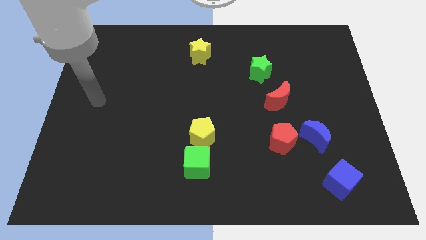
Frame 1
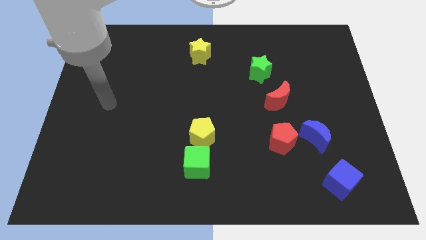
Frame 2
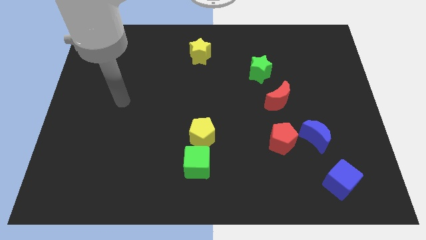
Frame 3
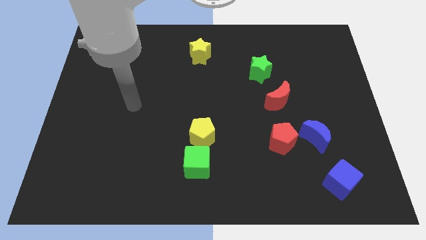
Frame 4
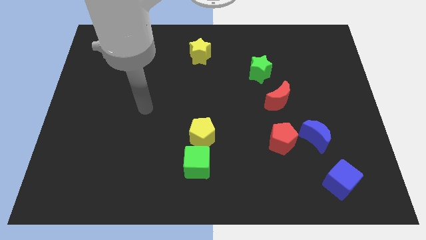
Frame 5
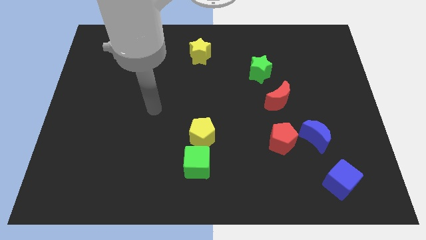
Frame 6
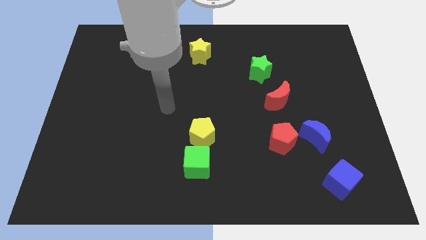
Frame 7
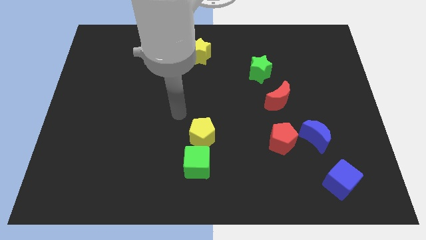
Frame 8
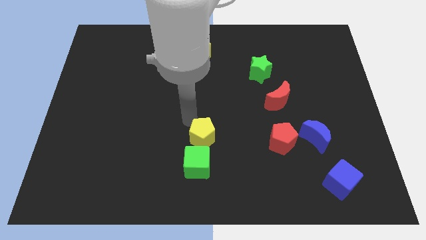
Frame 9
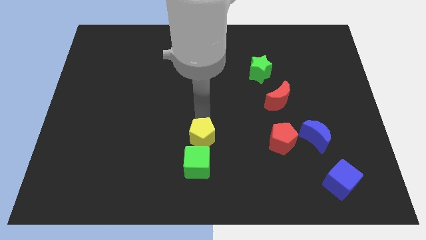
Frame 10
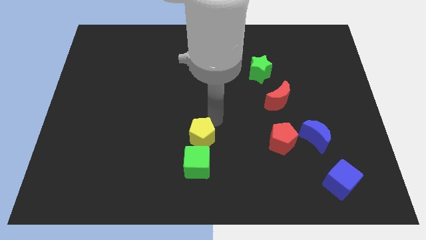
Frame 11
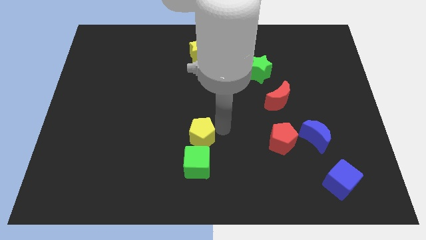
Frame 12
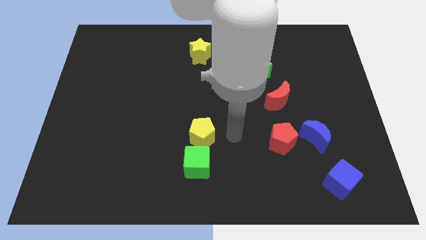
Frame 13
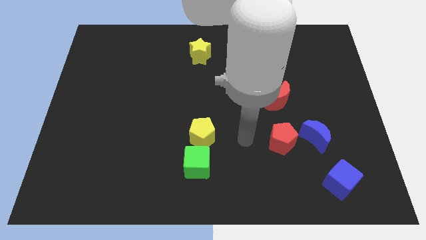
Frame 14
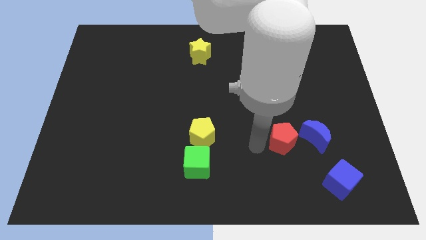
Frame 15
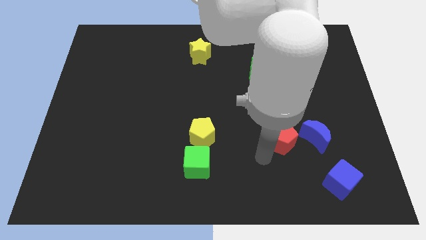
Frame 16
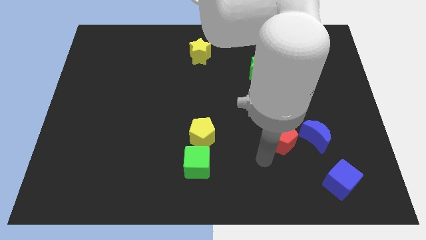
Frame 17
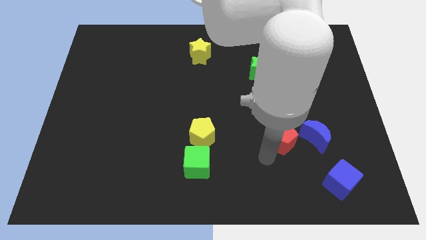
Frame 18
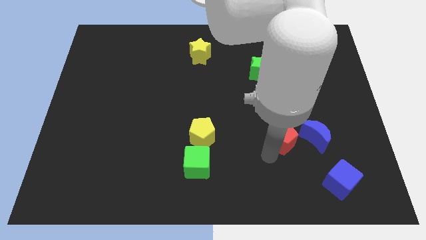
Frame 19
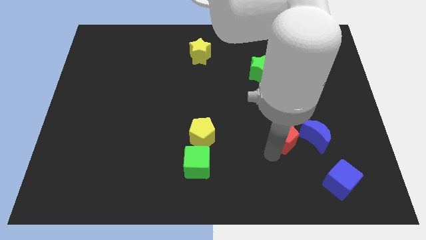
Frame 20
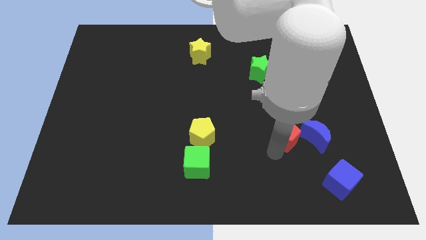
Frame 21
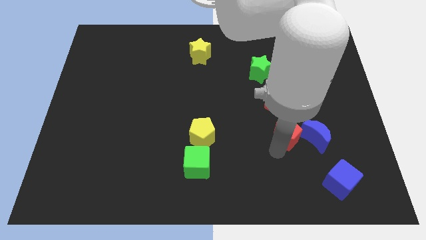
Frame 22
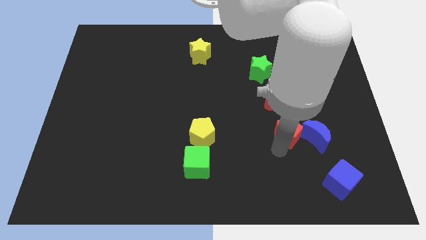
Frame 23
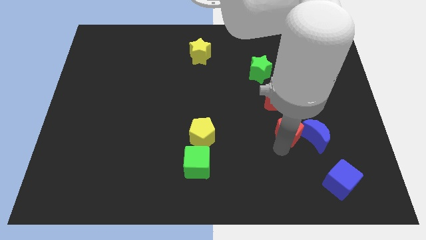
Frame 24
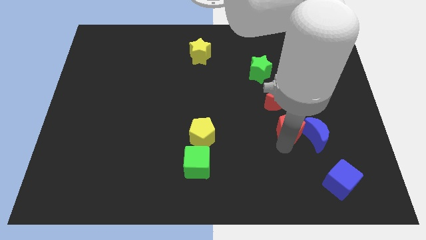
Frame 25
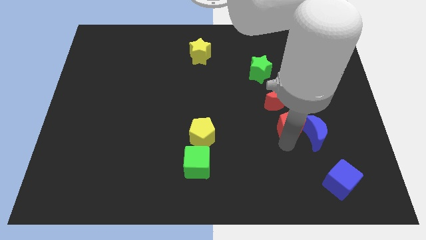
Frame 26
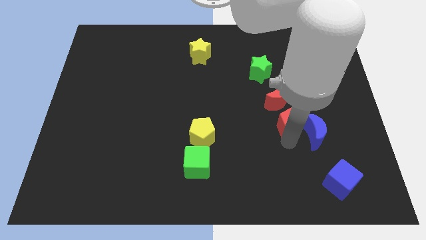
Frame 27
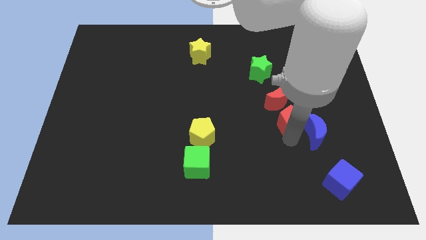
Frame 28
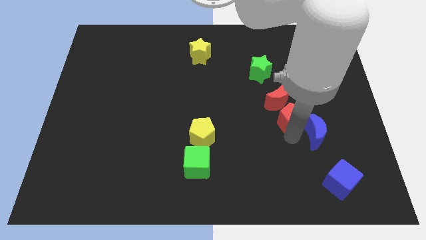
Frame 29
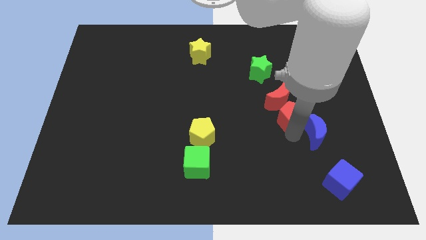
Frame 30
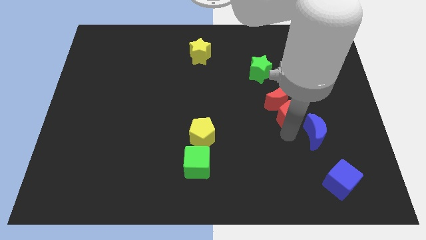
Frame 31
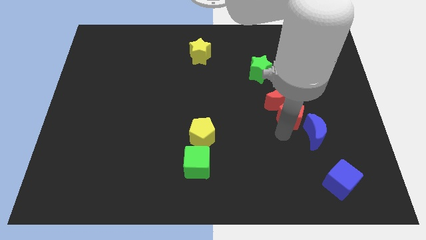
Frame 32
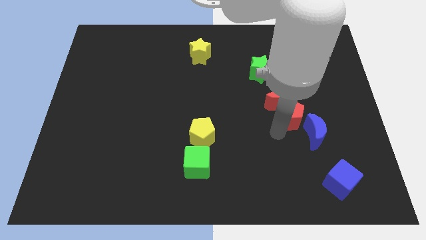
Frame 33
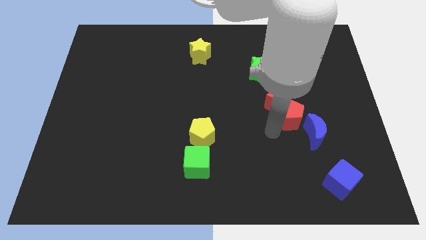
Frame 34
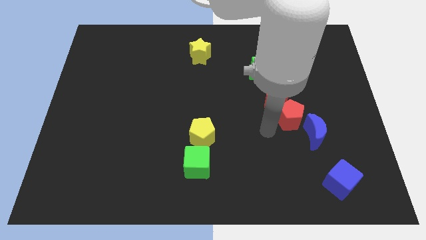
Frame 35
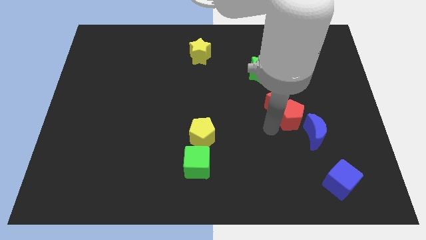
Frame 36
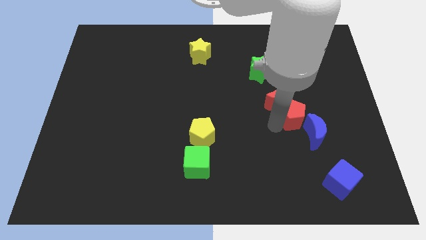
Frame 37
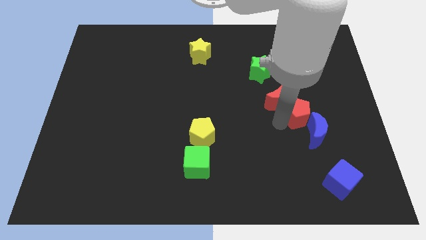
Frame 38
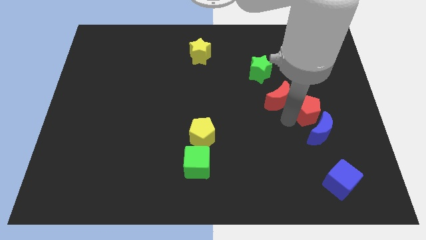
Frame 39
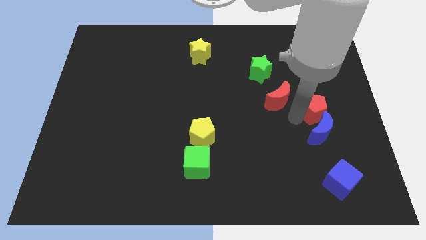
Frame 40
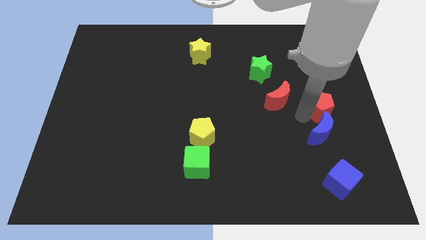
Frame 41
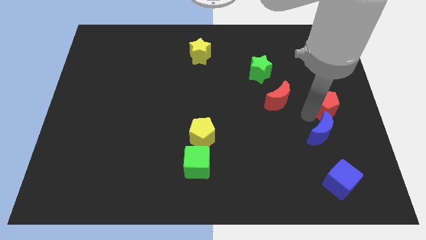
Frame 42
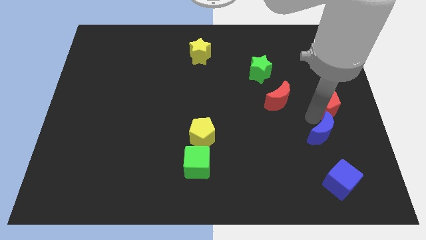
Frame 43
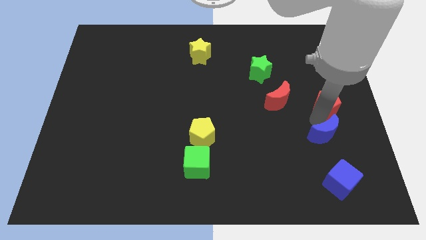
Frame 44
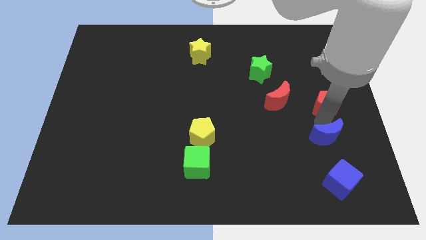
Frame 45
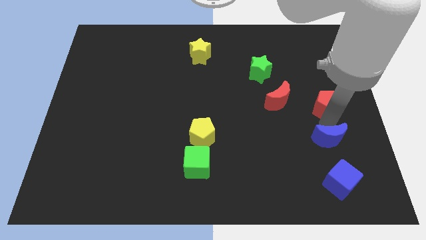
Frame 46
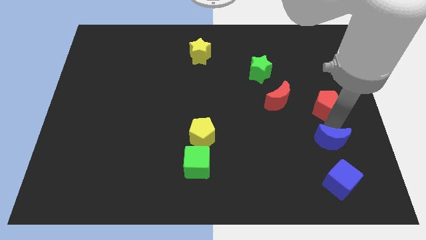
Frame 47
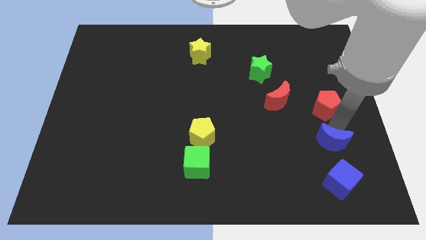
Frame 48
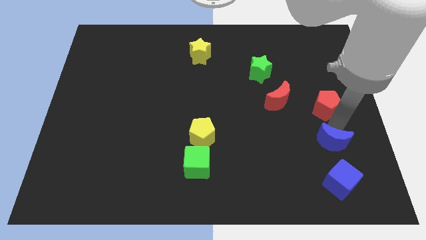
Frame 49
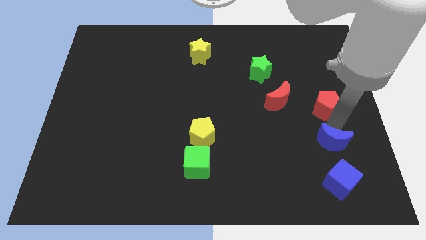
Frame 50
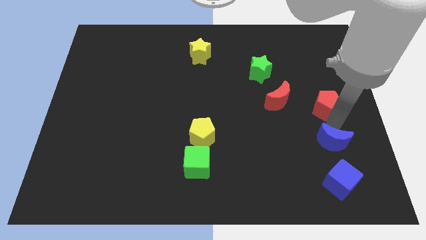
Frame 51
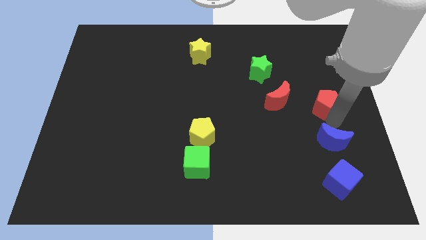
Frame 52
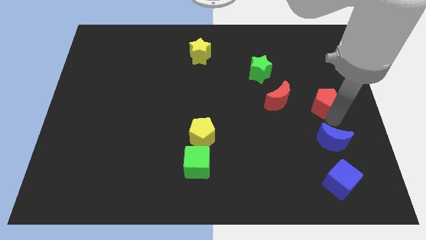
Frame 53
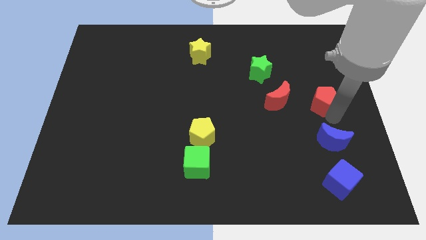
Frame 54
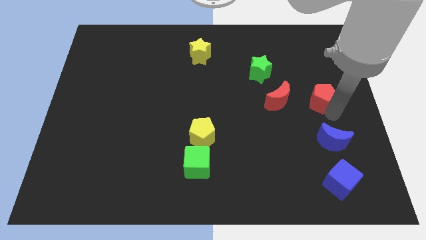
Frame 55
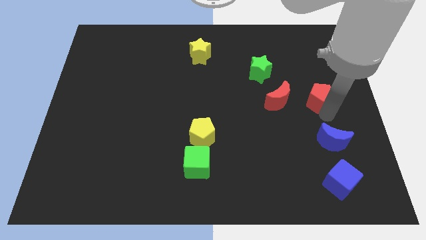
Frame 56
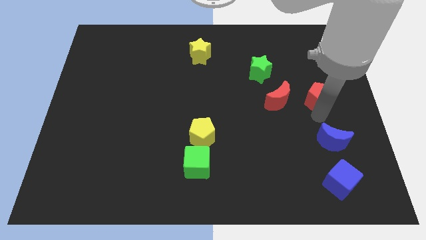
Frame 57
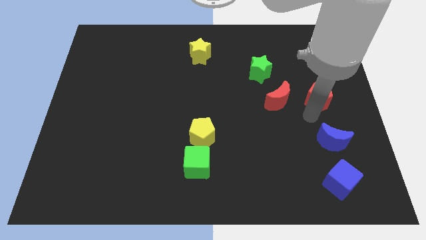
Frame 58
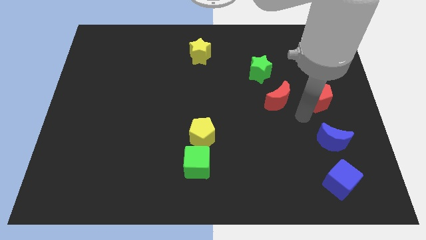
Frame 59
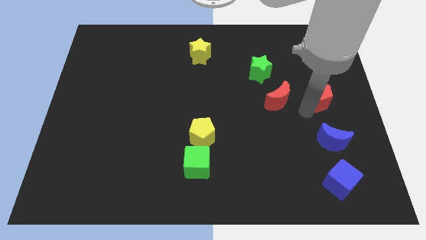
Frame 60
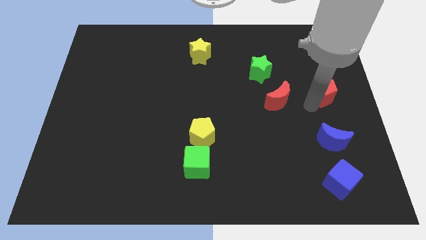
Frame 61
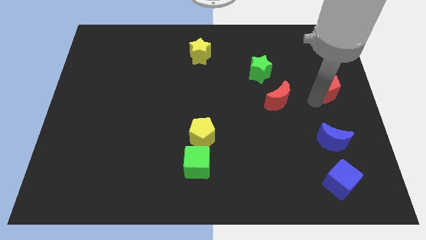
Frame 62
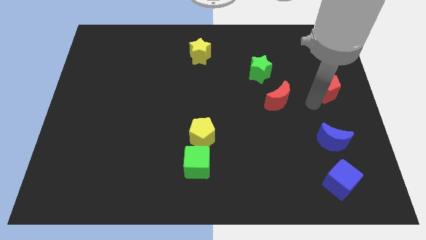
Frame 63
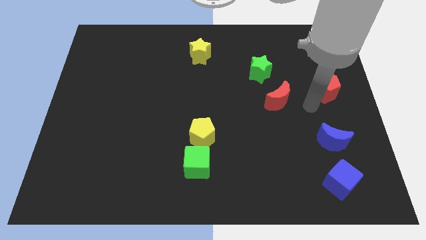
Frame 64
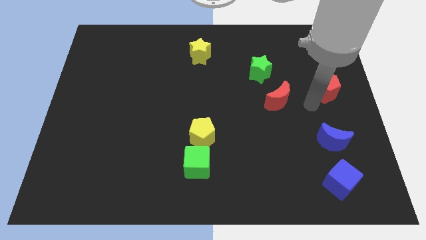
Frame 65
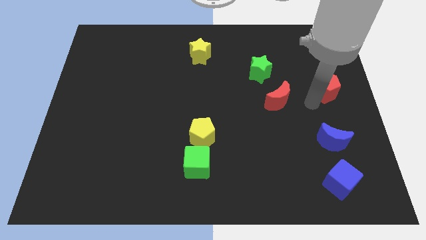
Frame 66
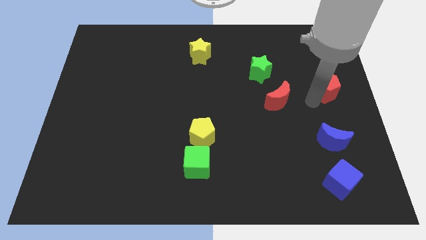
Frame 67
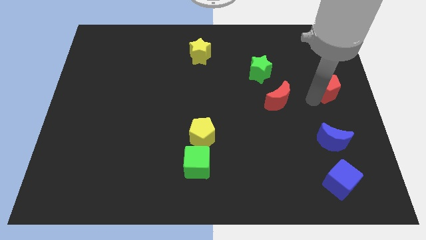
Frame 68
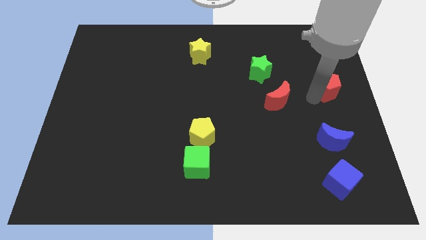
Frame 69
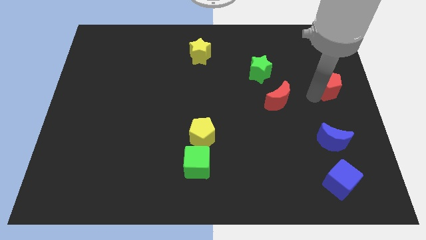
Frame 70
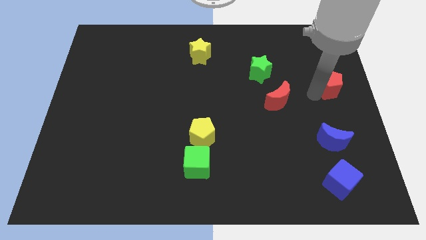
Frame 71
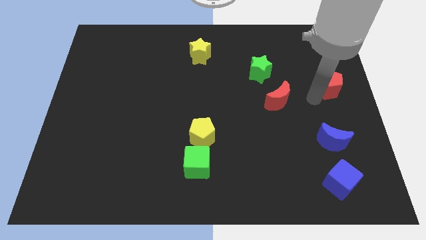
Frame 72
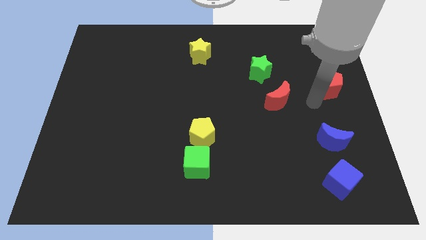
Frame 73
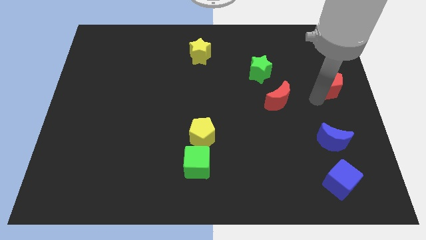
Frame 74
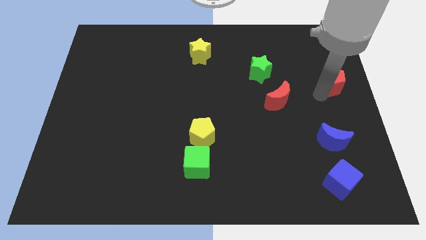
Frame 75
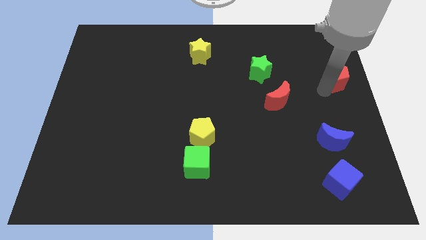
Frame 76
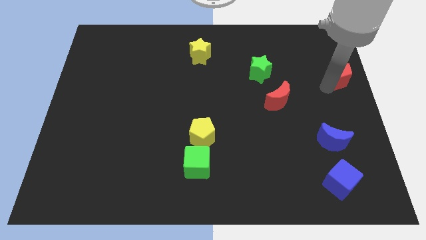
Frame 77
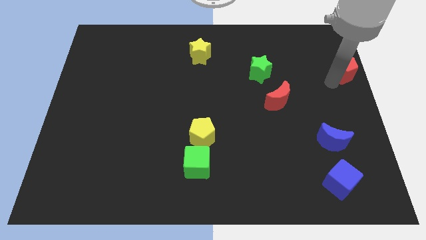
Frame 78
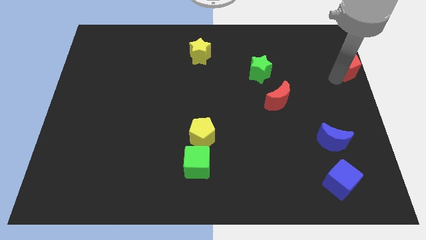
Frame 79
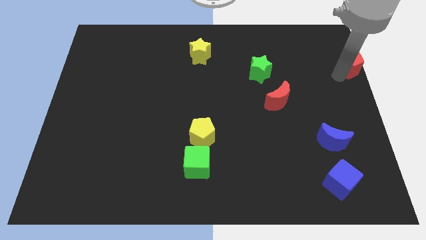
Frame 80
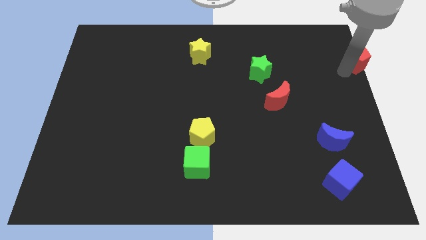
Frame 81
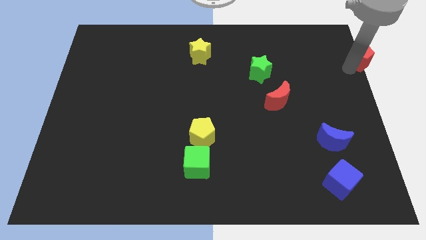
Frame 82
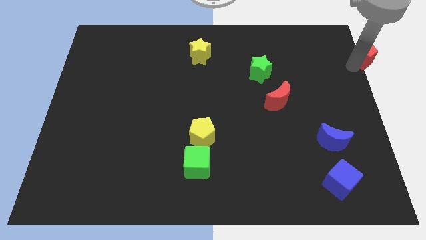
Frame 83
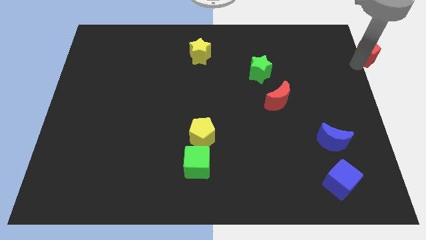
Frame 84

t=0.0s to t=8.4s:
put the red pentagon to the upper right corner
